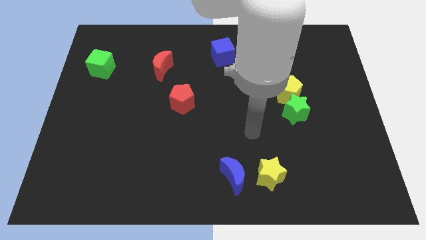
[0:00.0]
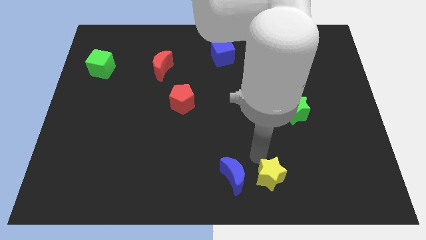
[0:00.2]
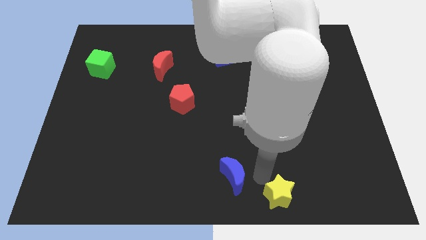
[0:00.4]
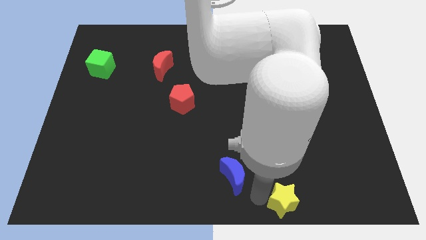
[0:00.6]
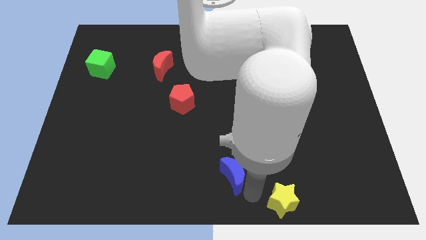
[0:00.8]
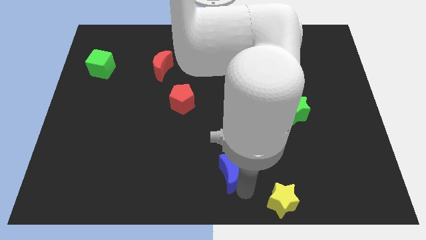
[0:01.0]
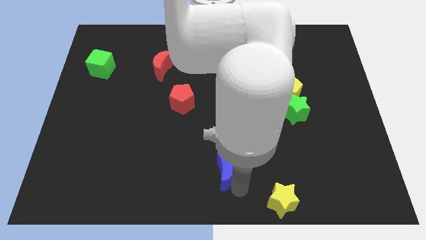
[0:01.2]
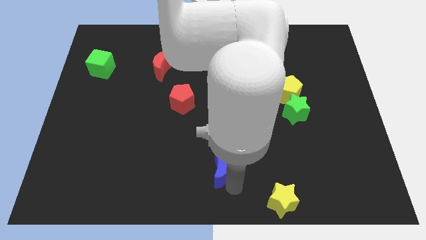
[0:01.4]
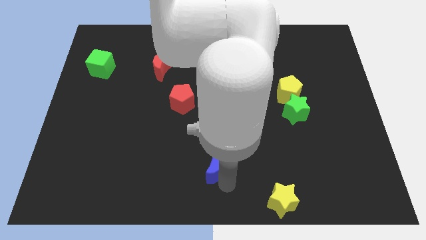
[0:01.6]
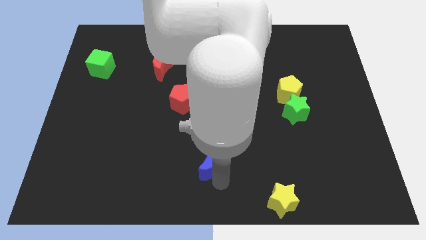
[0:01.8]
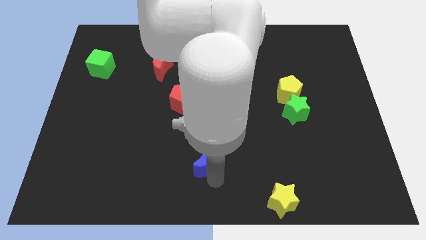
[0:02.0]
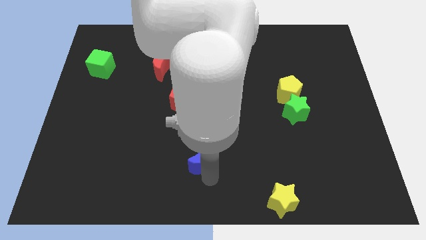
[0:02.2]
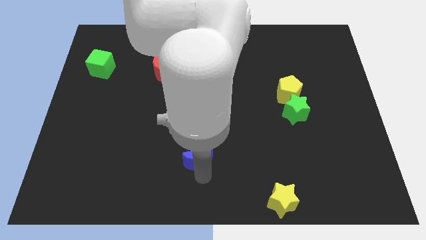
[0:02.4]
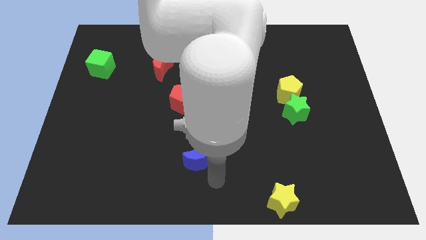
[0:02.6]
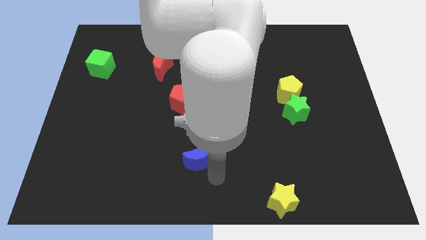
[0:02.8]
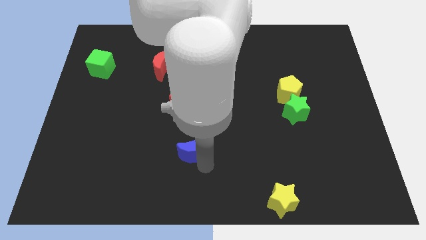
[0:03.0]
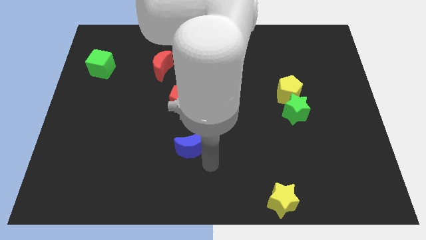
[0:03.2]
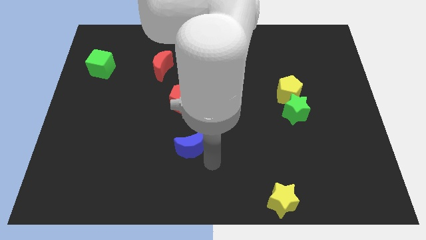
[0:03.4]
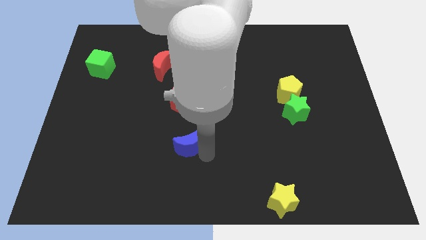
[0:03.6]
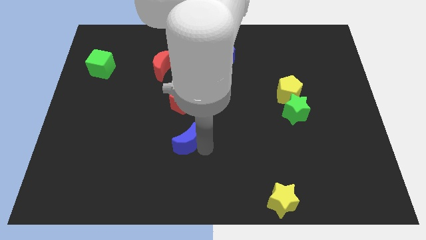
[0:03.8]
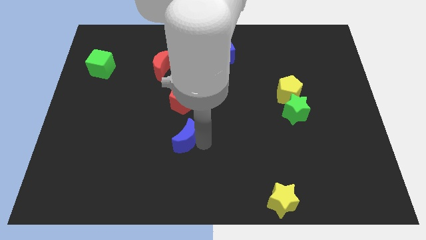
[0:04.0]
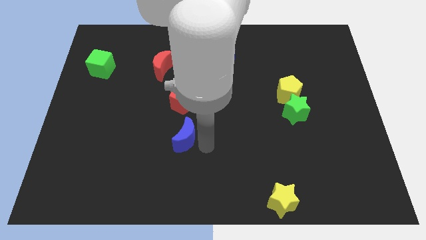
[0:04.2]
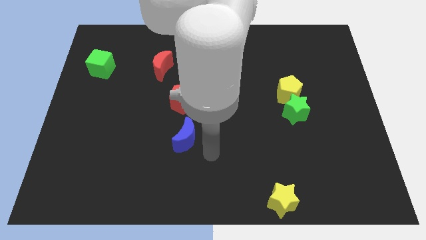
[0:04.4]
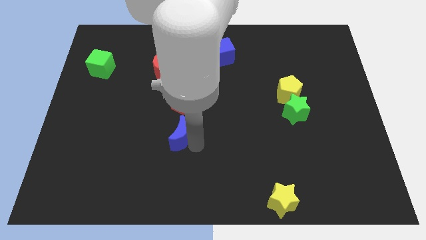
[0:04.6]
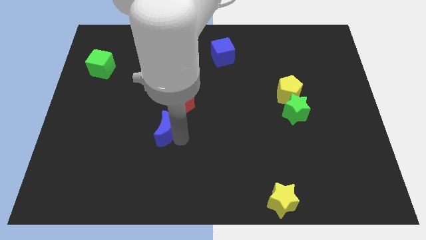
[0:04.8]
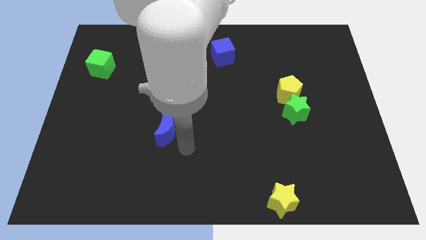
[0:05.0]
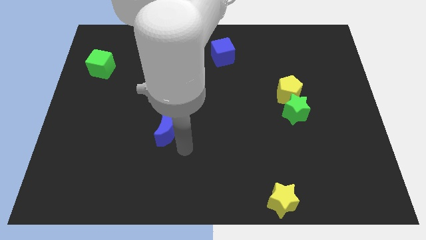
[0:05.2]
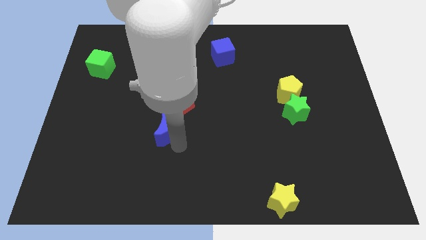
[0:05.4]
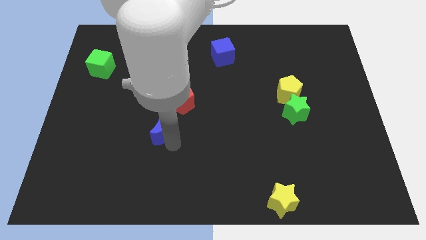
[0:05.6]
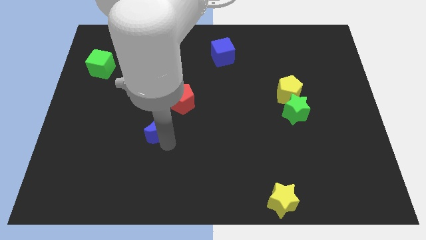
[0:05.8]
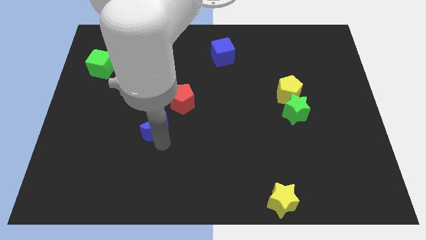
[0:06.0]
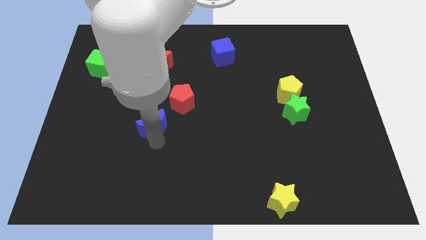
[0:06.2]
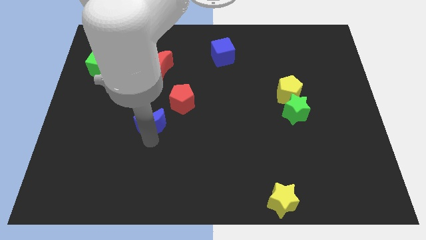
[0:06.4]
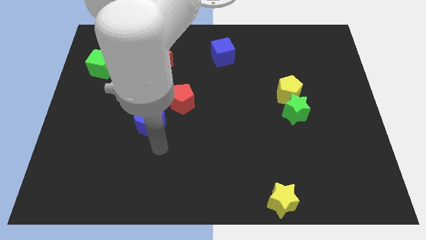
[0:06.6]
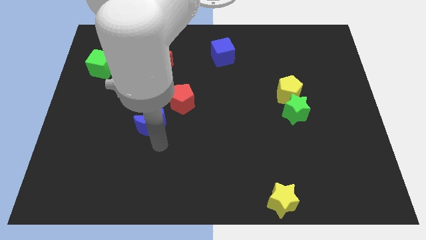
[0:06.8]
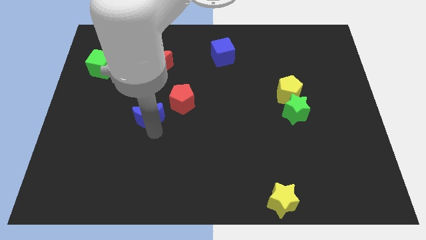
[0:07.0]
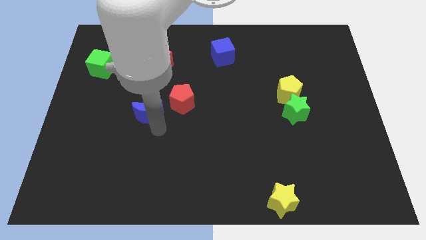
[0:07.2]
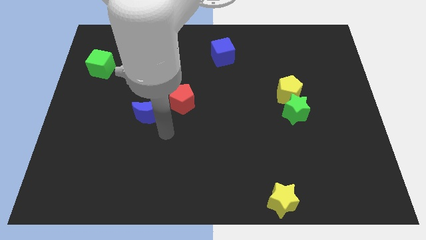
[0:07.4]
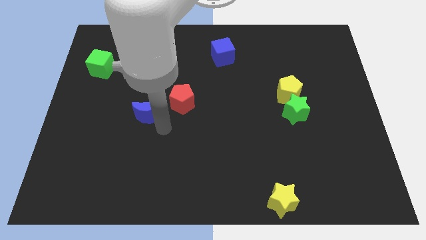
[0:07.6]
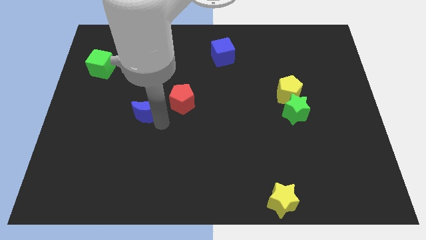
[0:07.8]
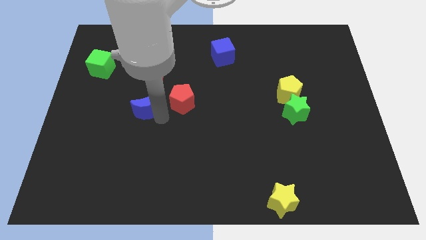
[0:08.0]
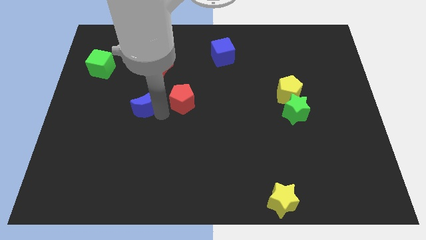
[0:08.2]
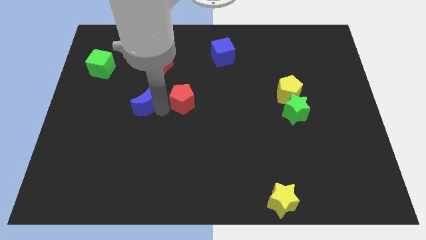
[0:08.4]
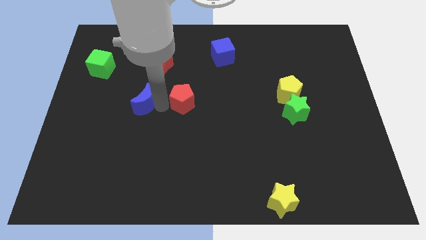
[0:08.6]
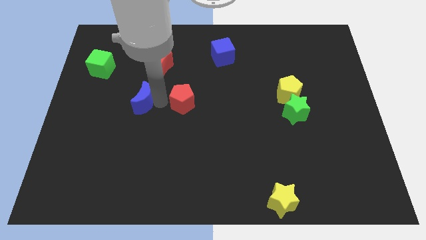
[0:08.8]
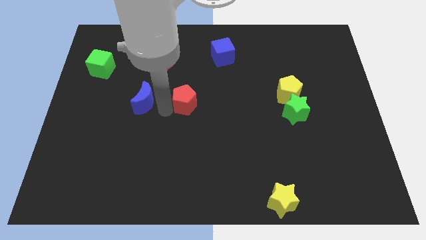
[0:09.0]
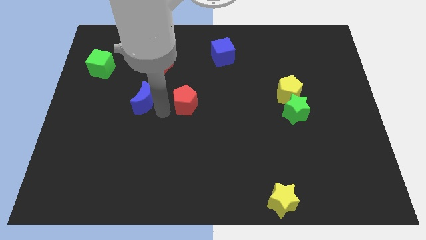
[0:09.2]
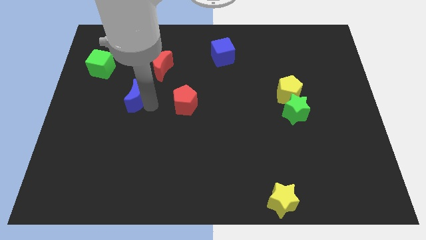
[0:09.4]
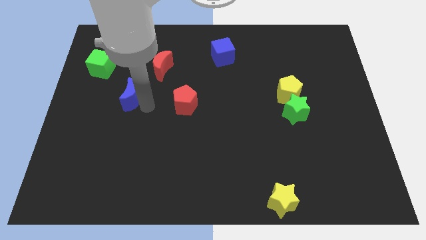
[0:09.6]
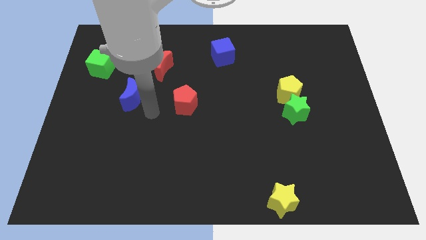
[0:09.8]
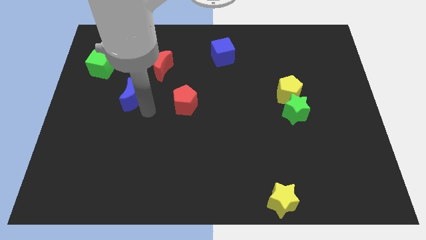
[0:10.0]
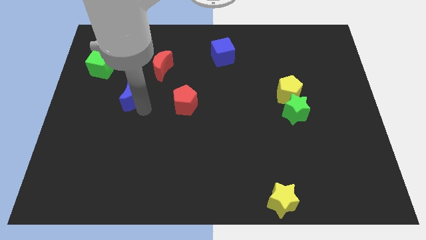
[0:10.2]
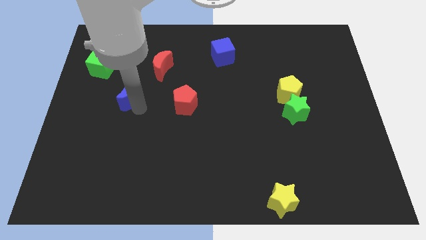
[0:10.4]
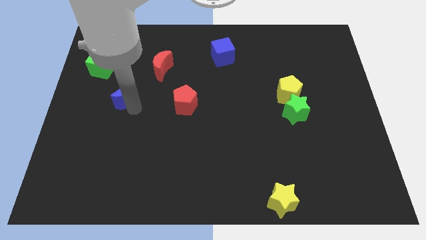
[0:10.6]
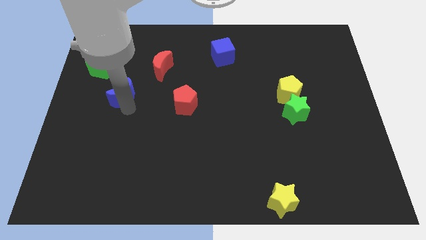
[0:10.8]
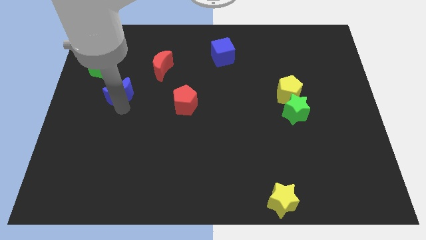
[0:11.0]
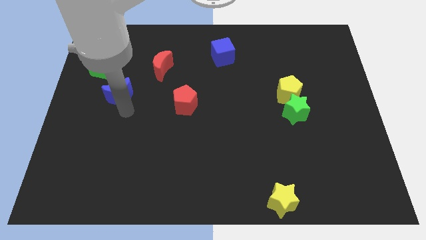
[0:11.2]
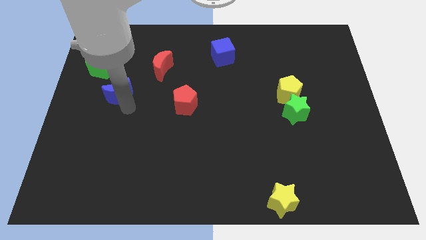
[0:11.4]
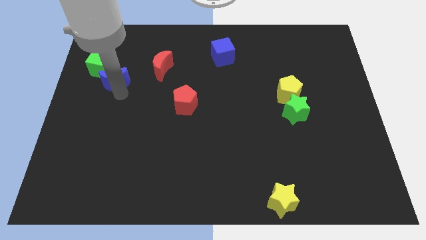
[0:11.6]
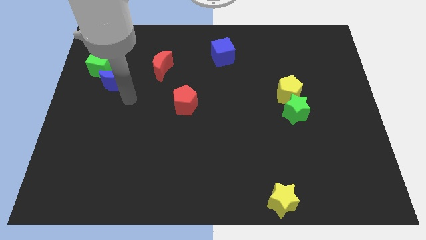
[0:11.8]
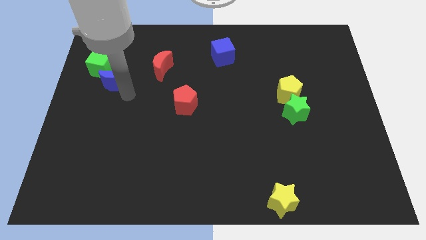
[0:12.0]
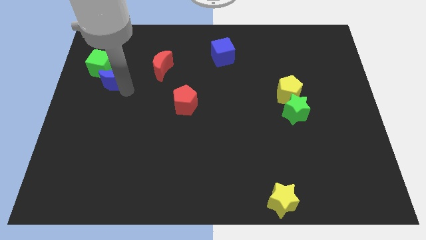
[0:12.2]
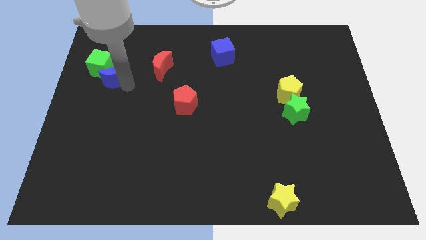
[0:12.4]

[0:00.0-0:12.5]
put the blue moon close to the green cube

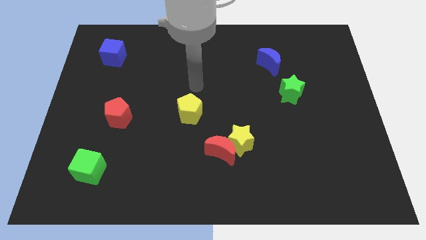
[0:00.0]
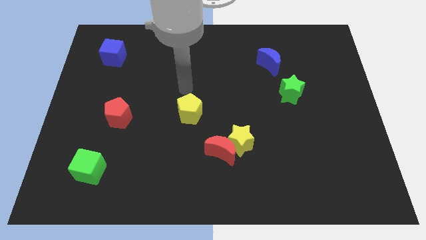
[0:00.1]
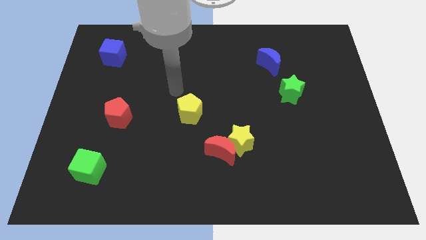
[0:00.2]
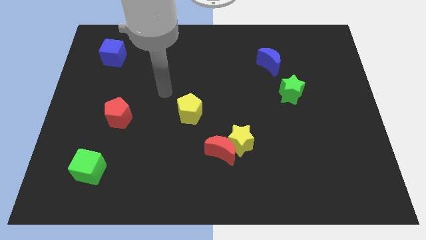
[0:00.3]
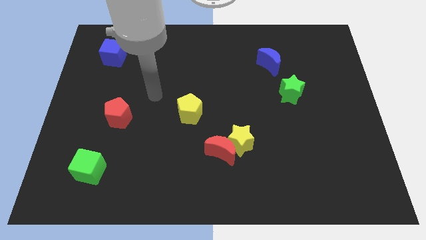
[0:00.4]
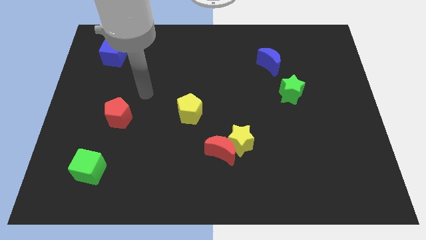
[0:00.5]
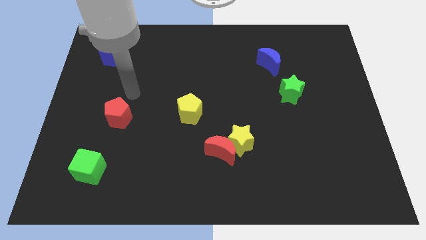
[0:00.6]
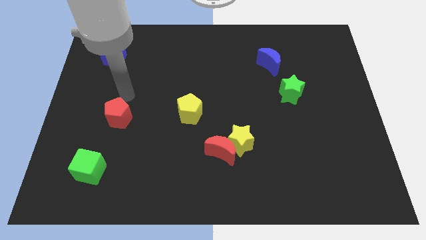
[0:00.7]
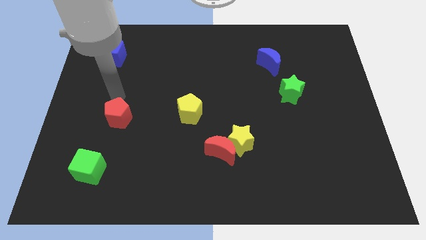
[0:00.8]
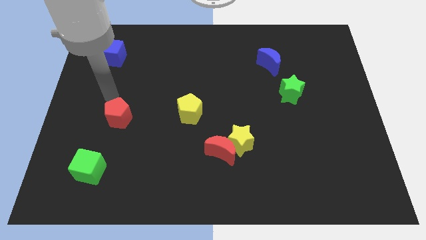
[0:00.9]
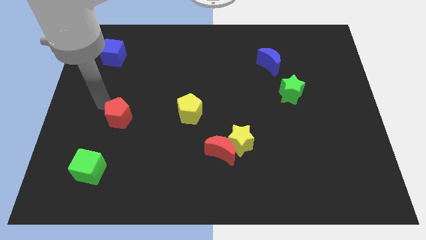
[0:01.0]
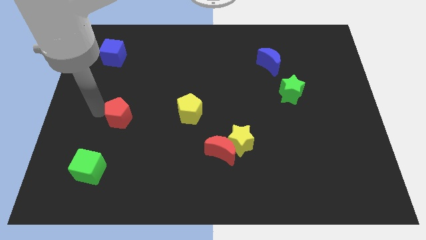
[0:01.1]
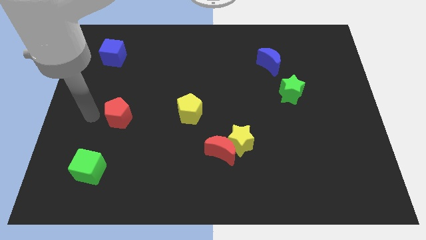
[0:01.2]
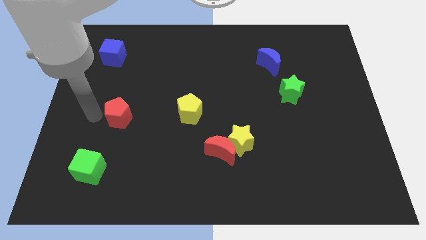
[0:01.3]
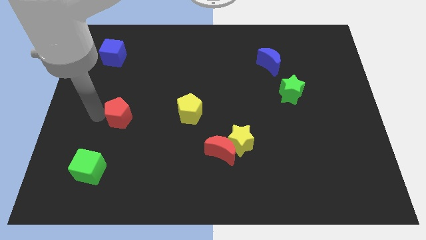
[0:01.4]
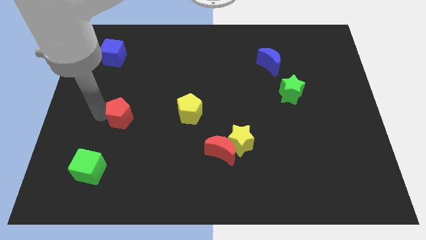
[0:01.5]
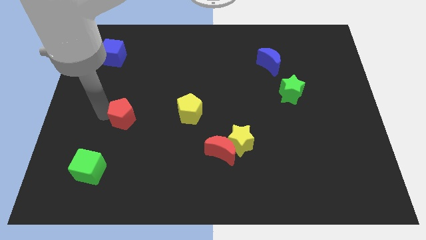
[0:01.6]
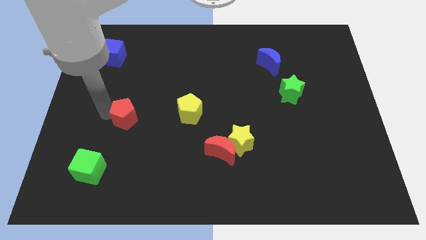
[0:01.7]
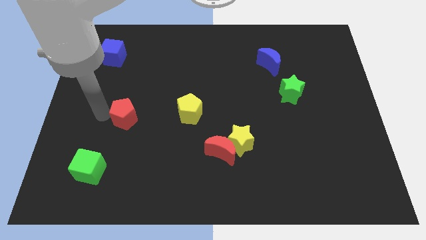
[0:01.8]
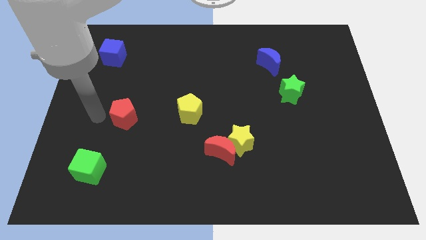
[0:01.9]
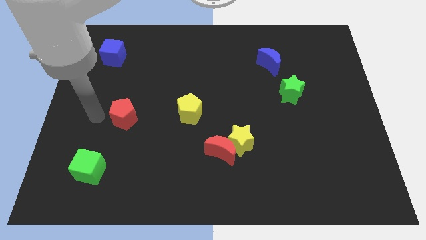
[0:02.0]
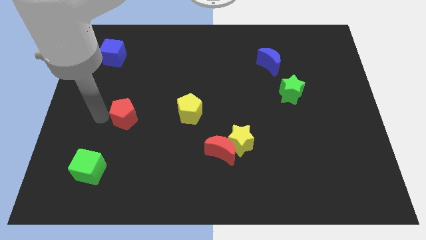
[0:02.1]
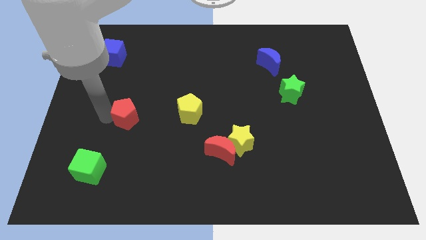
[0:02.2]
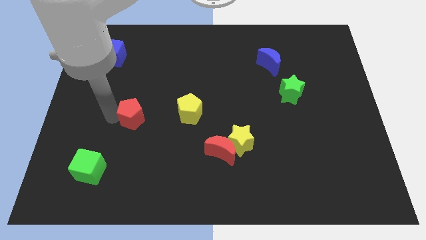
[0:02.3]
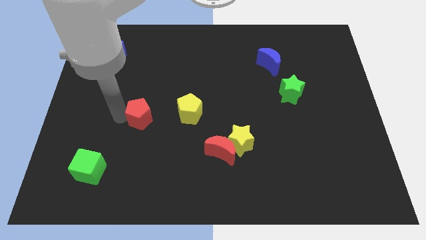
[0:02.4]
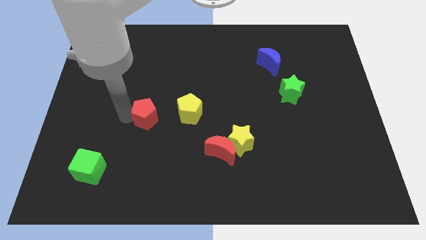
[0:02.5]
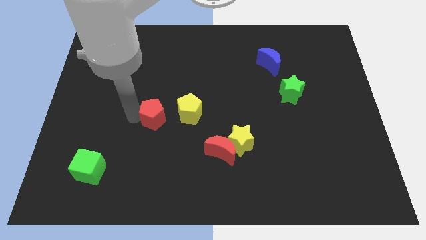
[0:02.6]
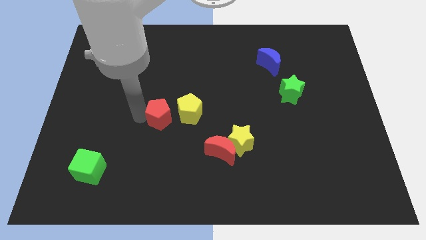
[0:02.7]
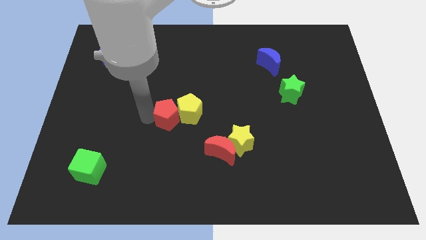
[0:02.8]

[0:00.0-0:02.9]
push the red pentagon close to the yellow pentagon
